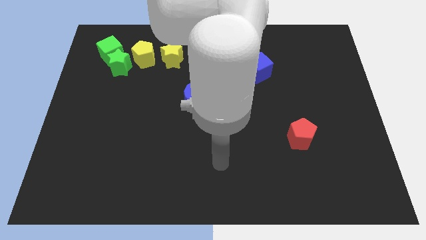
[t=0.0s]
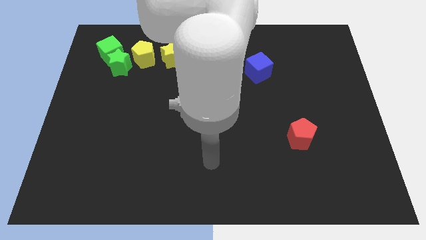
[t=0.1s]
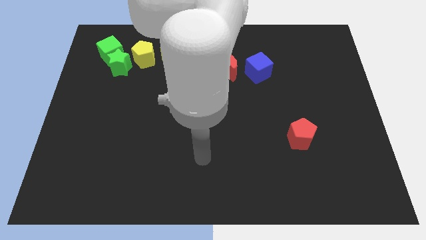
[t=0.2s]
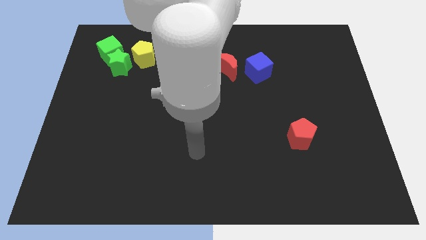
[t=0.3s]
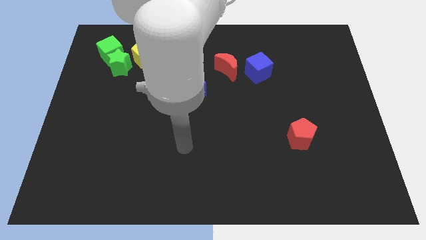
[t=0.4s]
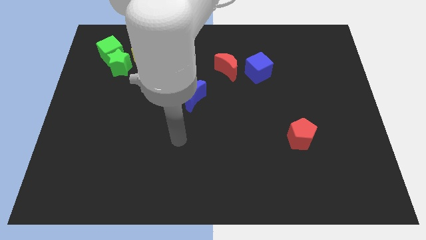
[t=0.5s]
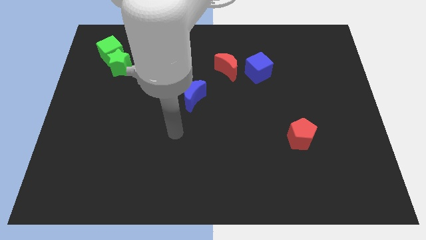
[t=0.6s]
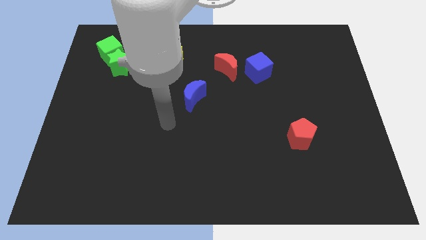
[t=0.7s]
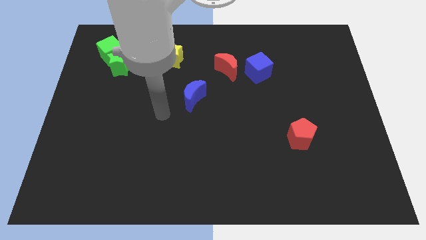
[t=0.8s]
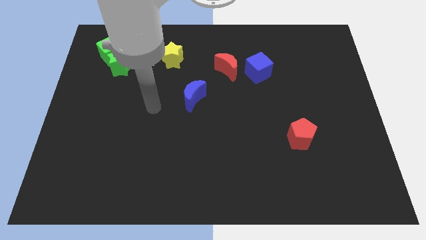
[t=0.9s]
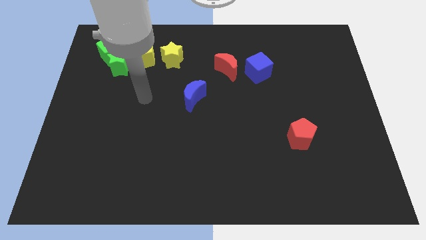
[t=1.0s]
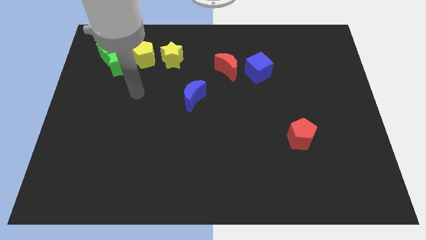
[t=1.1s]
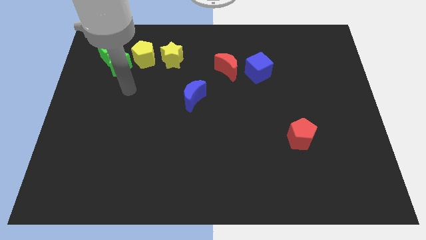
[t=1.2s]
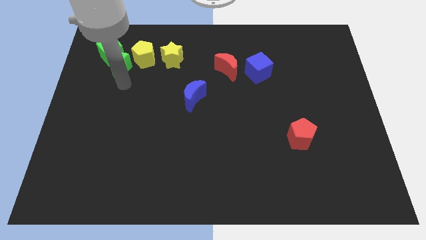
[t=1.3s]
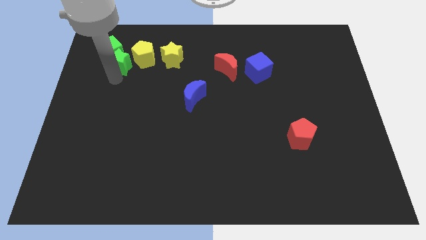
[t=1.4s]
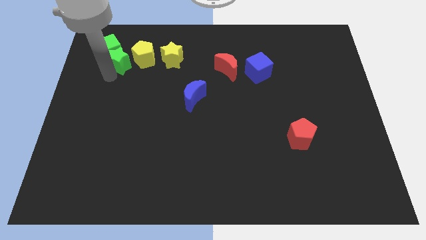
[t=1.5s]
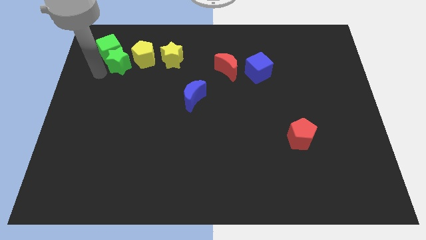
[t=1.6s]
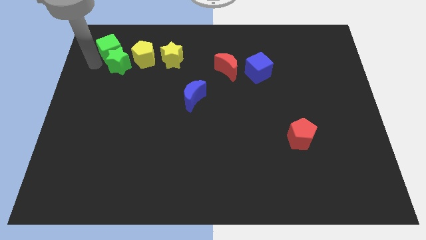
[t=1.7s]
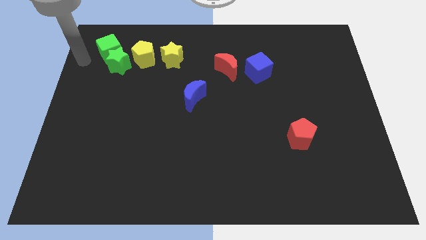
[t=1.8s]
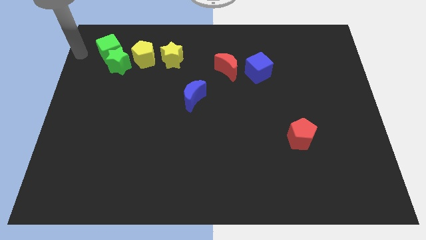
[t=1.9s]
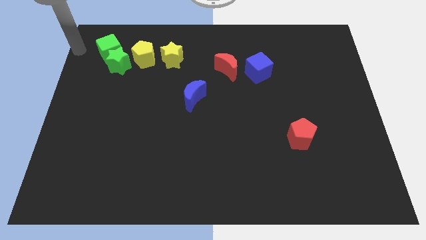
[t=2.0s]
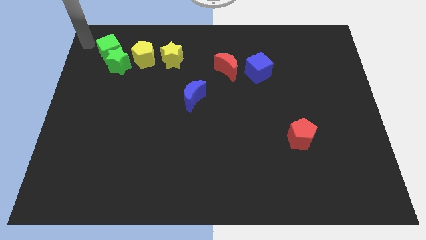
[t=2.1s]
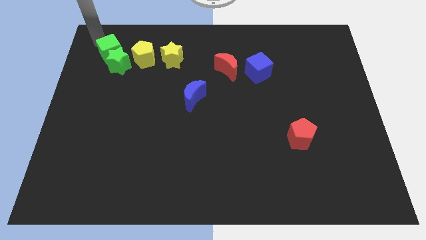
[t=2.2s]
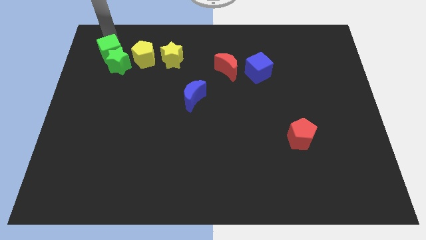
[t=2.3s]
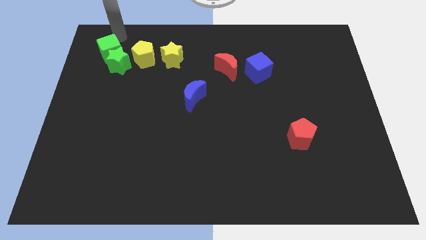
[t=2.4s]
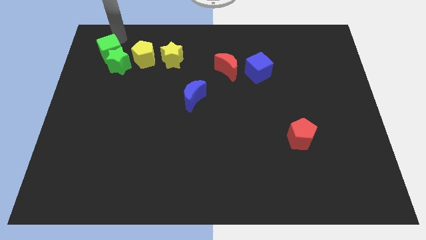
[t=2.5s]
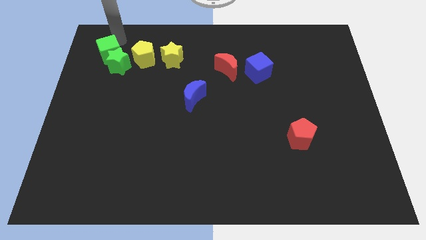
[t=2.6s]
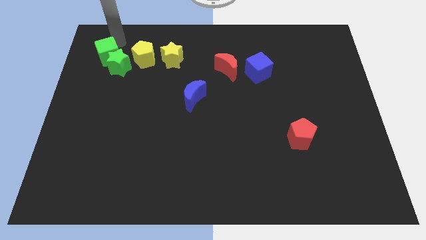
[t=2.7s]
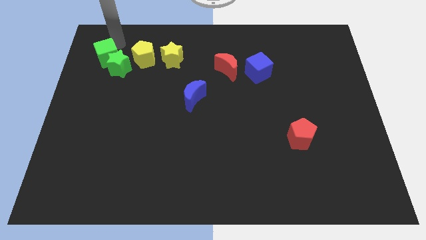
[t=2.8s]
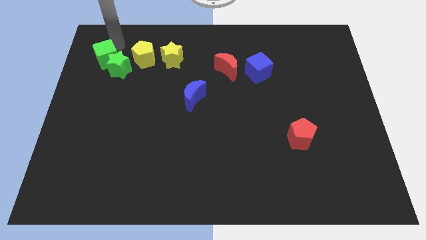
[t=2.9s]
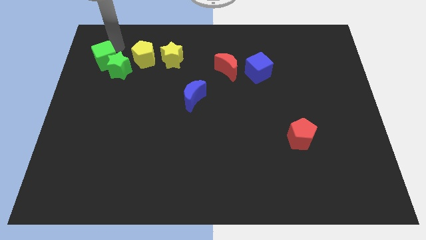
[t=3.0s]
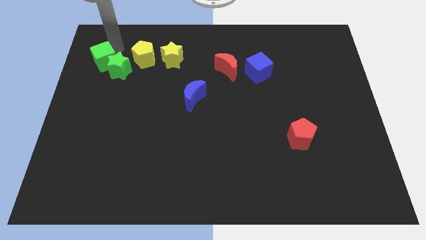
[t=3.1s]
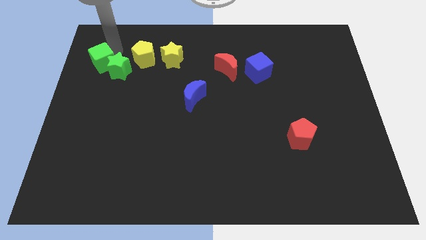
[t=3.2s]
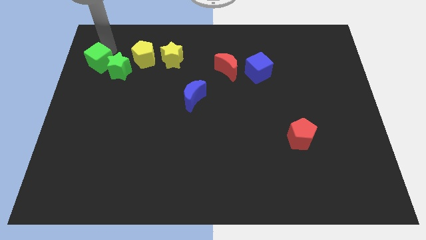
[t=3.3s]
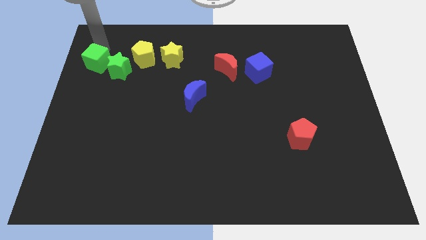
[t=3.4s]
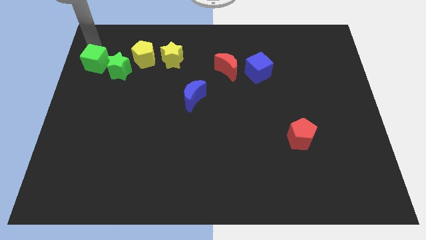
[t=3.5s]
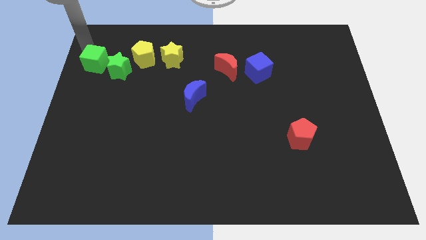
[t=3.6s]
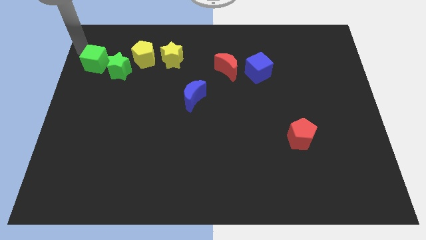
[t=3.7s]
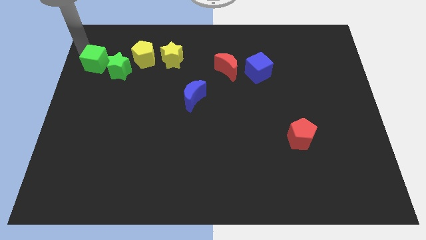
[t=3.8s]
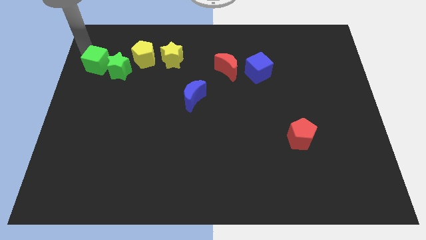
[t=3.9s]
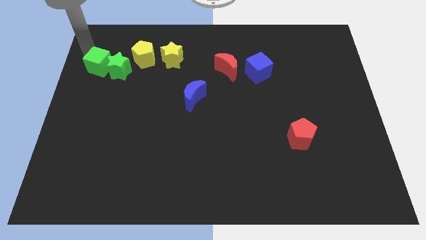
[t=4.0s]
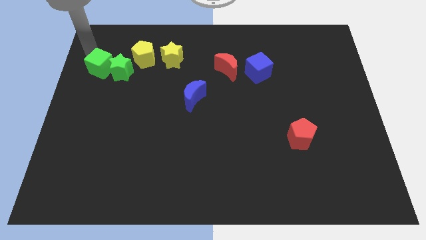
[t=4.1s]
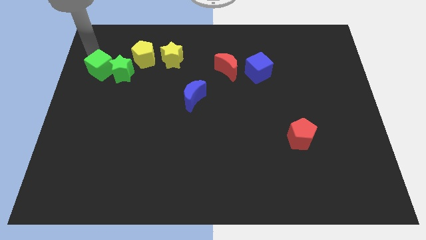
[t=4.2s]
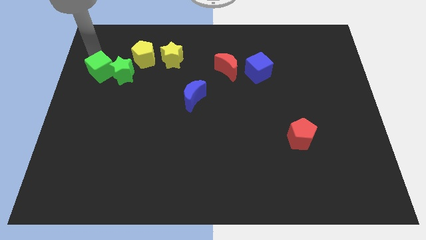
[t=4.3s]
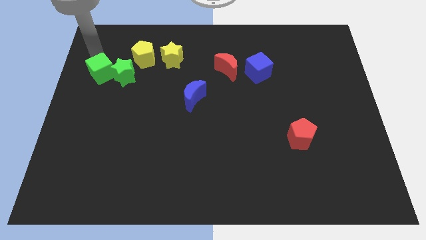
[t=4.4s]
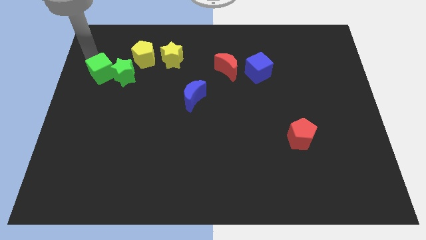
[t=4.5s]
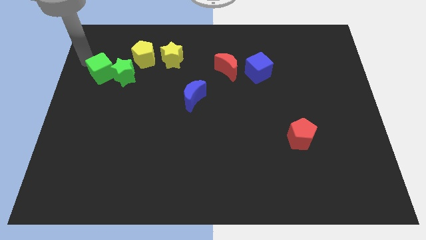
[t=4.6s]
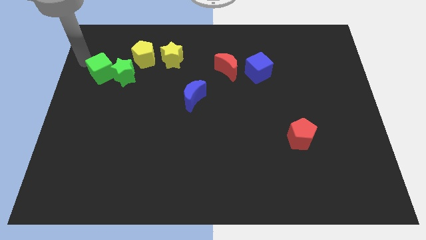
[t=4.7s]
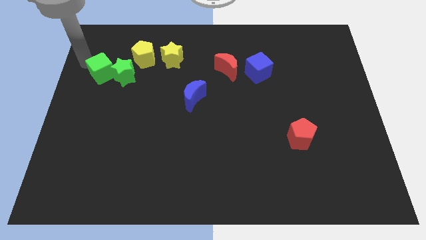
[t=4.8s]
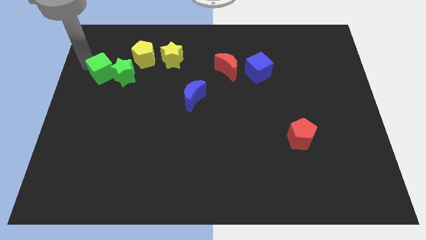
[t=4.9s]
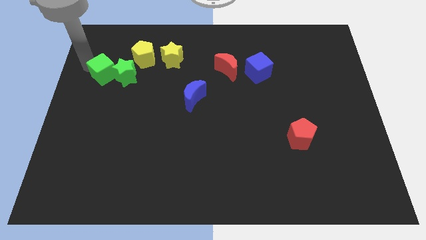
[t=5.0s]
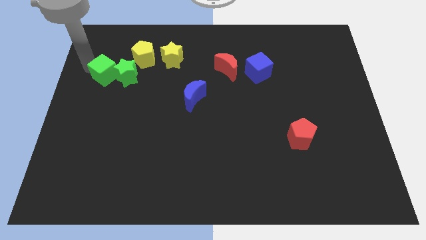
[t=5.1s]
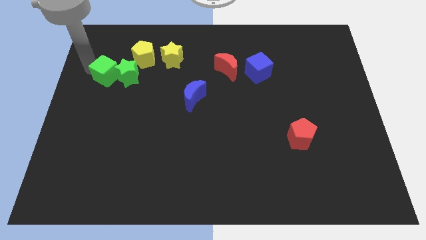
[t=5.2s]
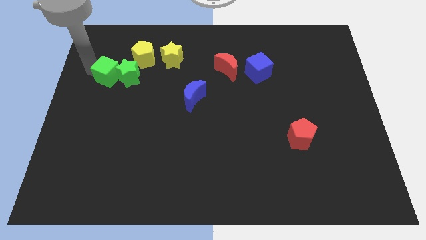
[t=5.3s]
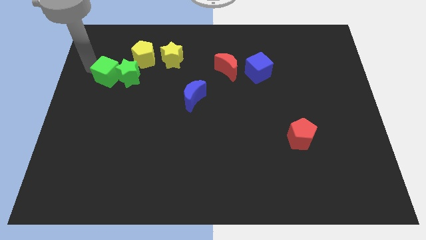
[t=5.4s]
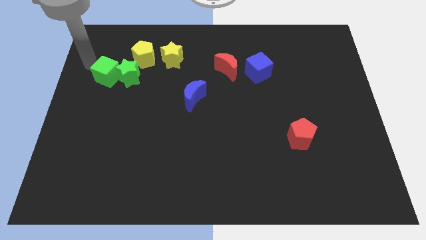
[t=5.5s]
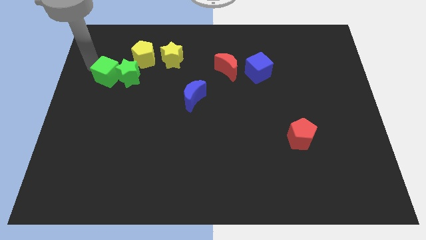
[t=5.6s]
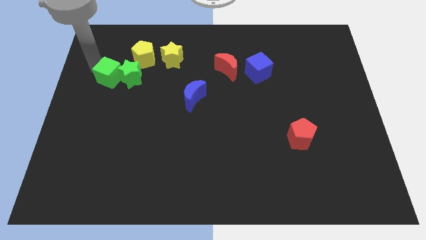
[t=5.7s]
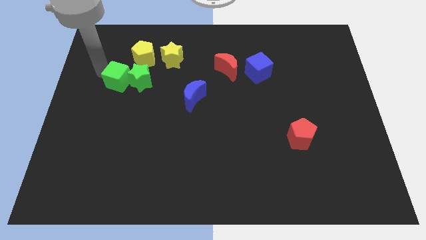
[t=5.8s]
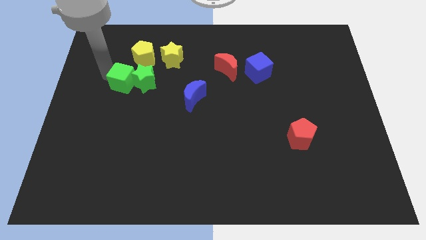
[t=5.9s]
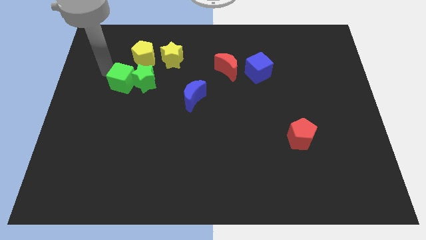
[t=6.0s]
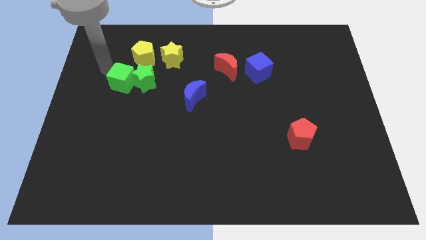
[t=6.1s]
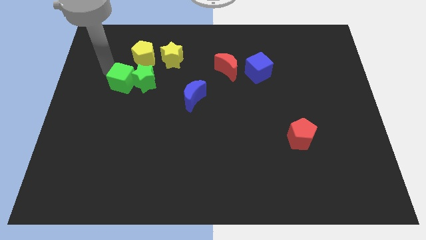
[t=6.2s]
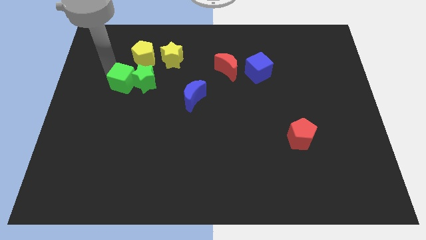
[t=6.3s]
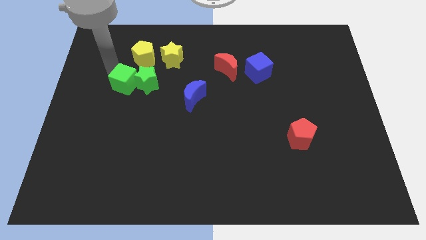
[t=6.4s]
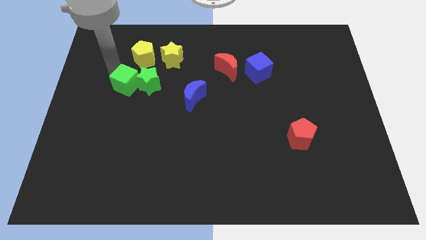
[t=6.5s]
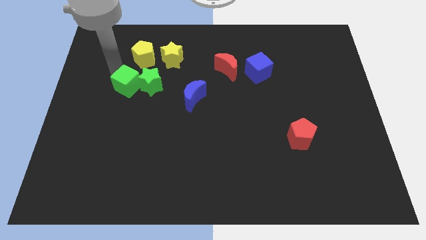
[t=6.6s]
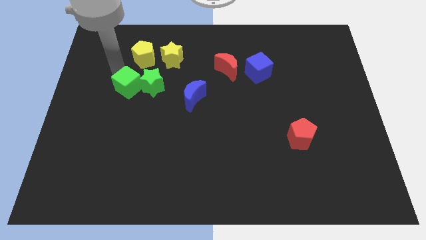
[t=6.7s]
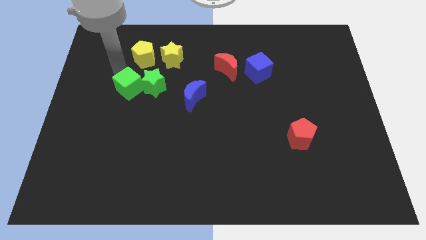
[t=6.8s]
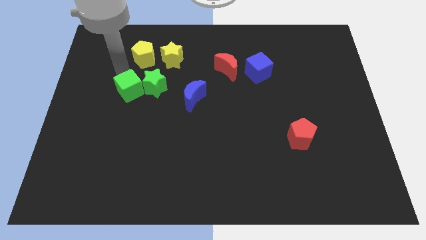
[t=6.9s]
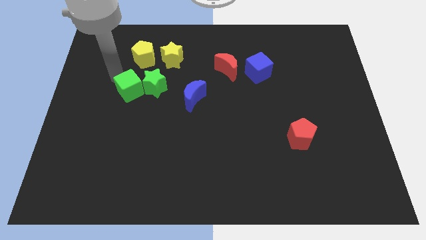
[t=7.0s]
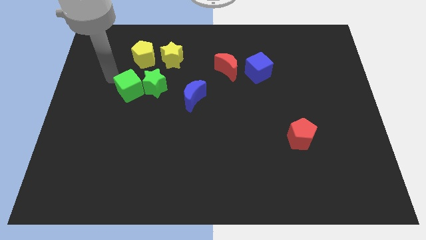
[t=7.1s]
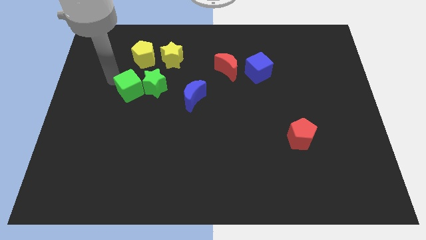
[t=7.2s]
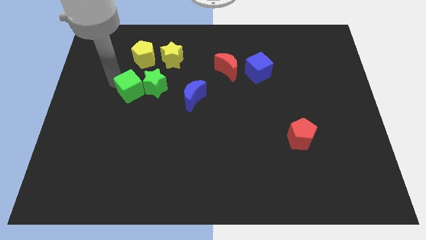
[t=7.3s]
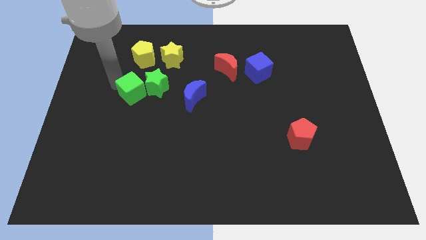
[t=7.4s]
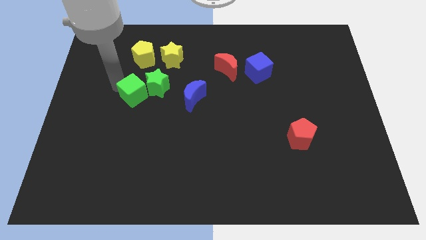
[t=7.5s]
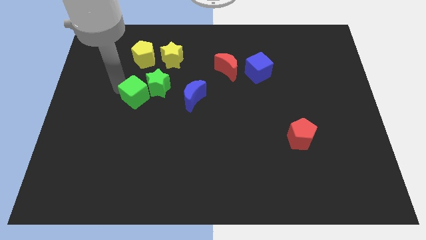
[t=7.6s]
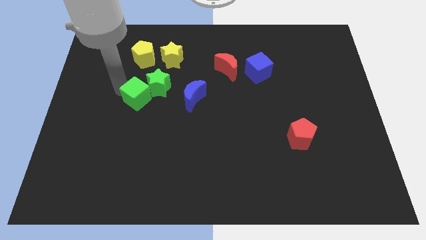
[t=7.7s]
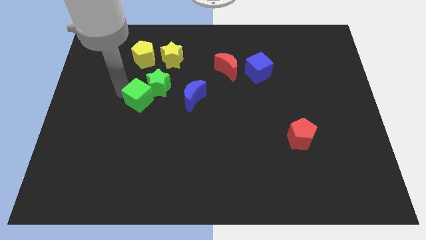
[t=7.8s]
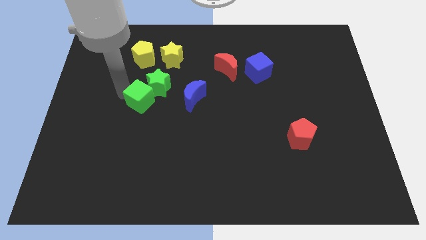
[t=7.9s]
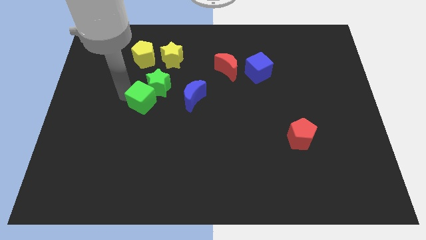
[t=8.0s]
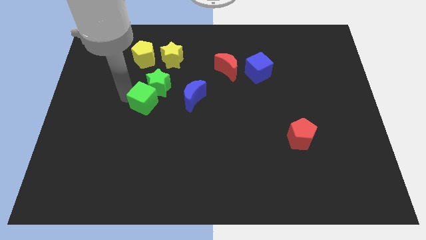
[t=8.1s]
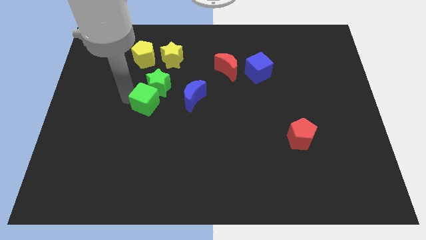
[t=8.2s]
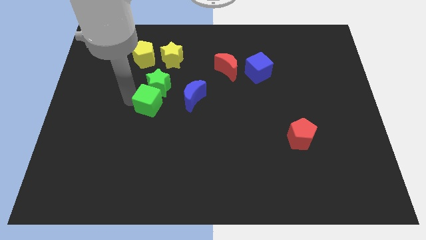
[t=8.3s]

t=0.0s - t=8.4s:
slide the green cube diagonally down and right
